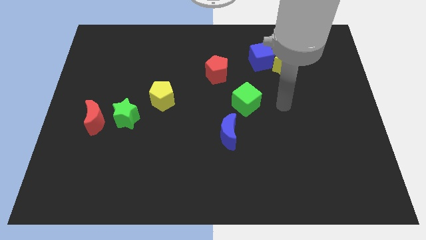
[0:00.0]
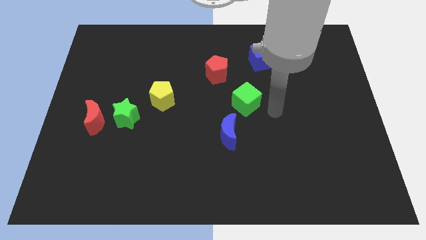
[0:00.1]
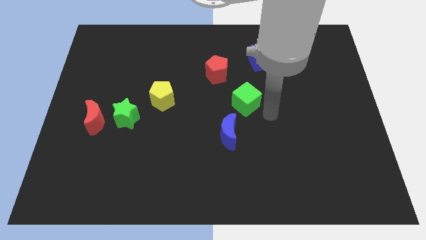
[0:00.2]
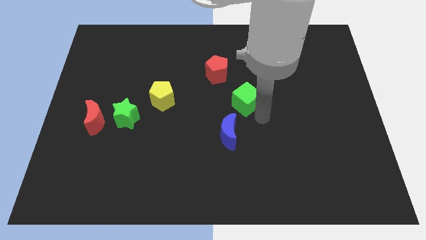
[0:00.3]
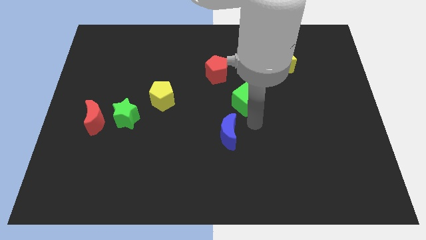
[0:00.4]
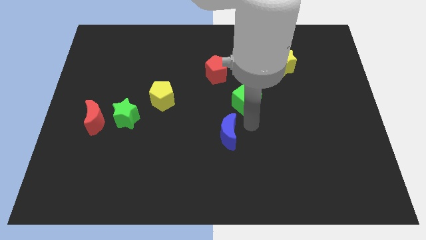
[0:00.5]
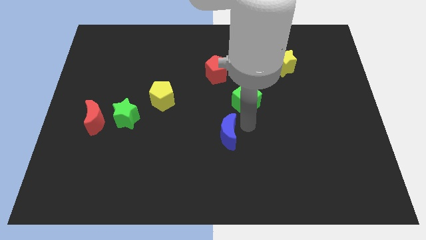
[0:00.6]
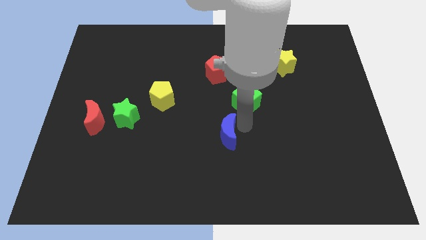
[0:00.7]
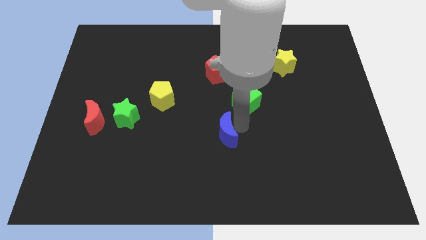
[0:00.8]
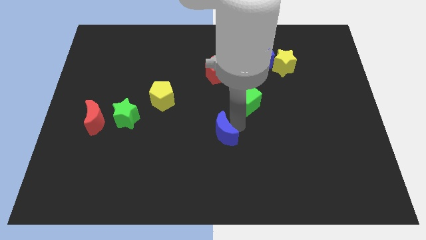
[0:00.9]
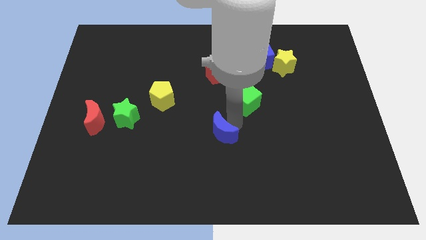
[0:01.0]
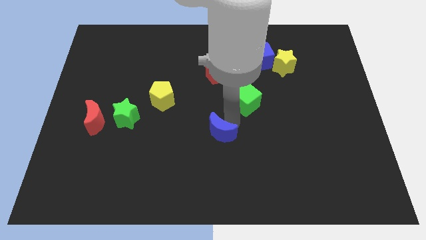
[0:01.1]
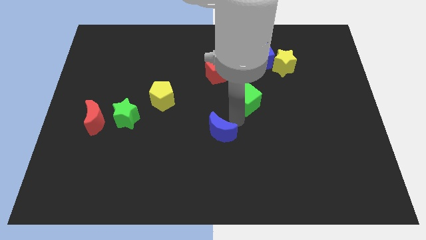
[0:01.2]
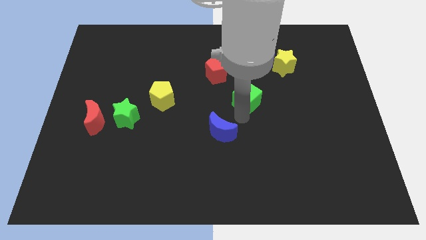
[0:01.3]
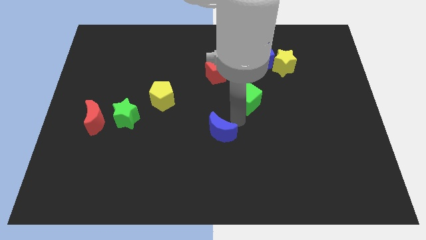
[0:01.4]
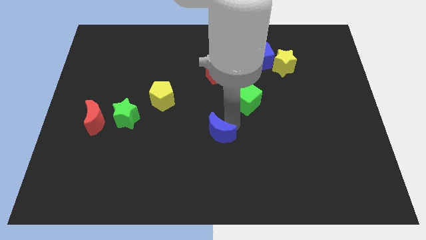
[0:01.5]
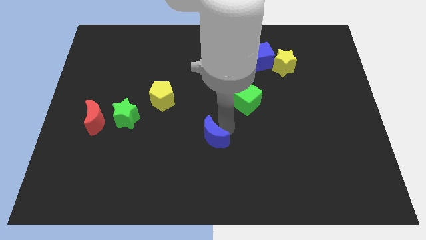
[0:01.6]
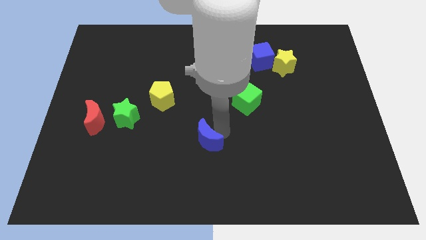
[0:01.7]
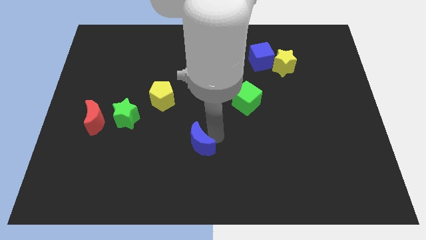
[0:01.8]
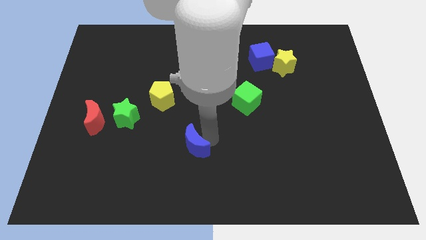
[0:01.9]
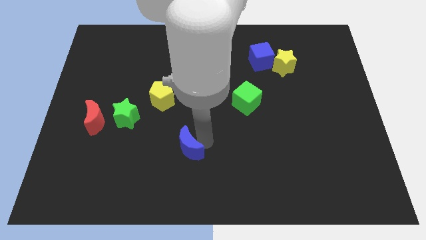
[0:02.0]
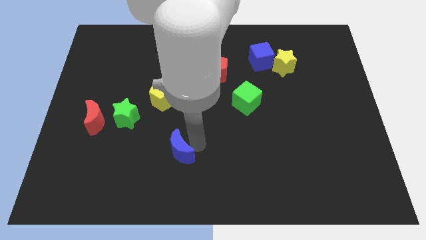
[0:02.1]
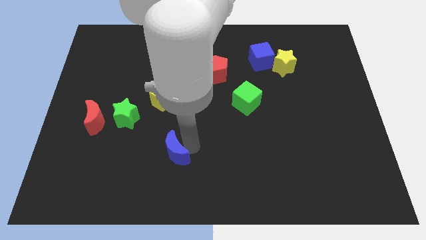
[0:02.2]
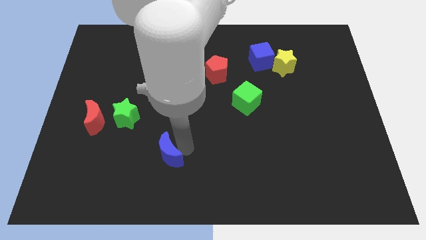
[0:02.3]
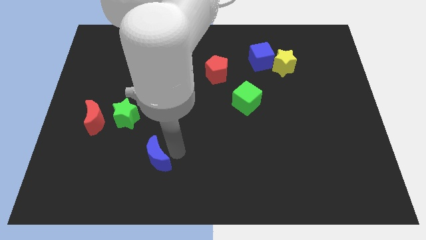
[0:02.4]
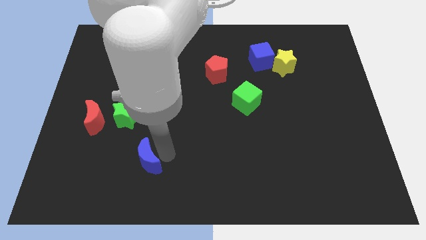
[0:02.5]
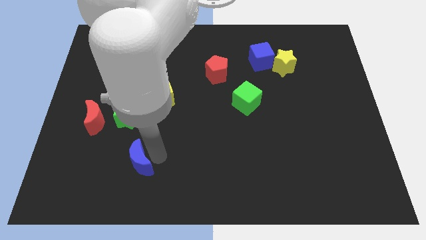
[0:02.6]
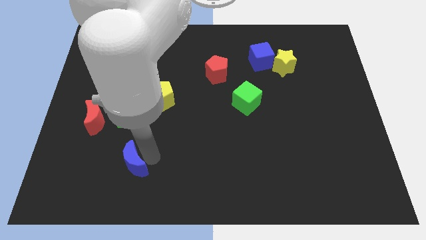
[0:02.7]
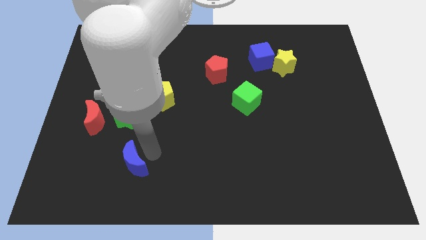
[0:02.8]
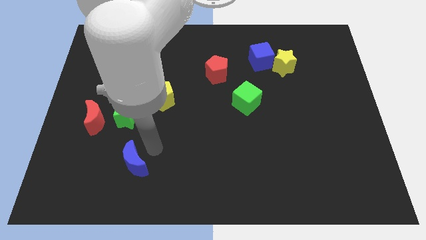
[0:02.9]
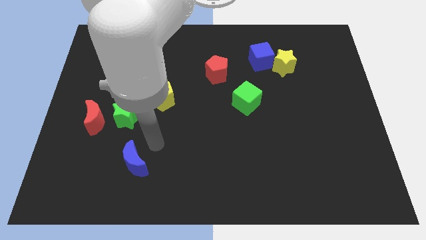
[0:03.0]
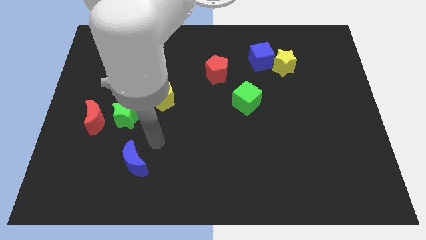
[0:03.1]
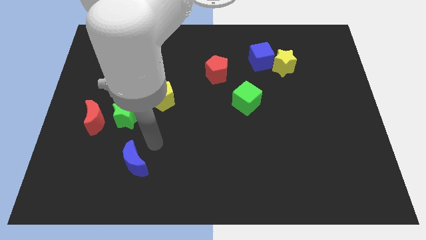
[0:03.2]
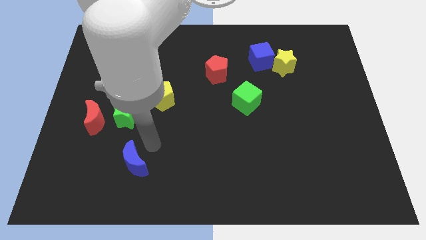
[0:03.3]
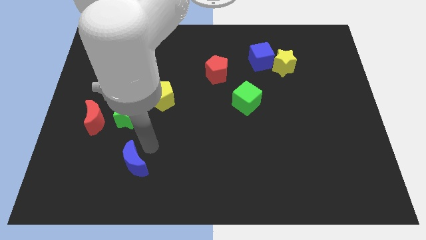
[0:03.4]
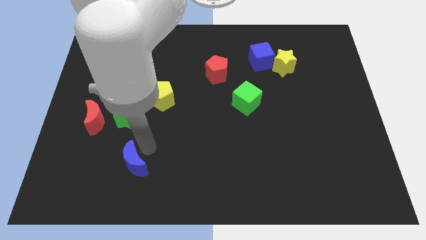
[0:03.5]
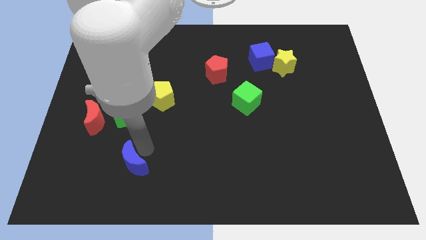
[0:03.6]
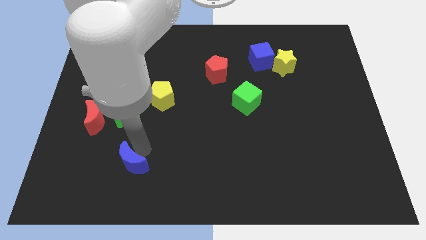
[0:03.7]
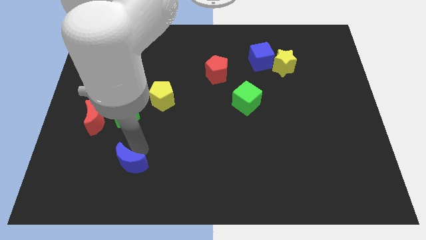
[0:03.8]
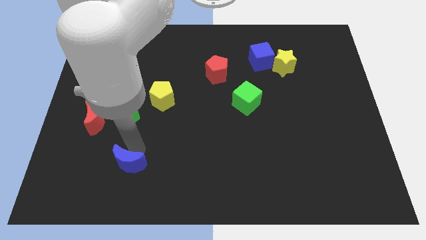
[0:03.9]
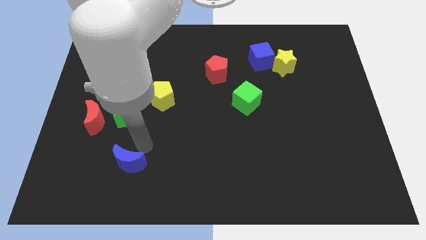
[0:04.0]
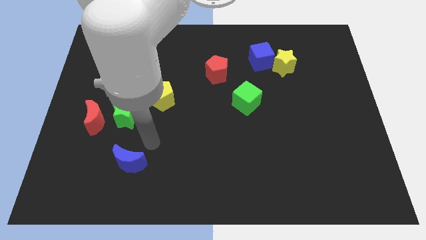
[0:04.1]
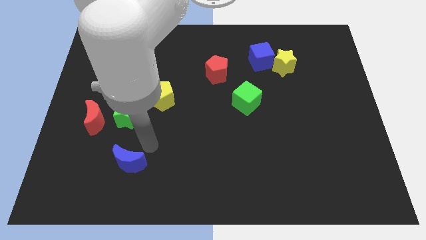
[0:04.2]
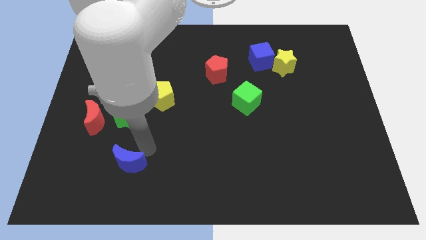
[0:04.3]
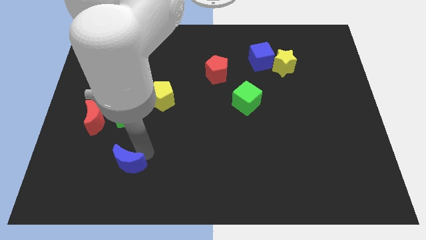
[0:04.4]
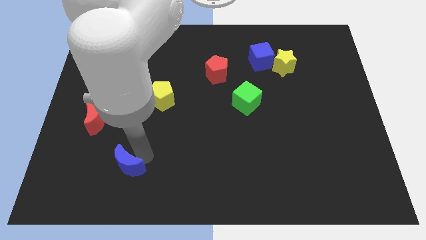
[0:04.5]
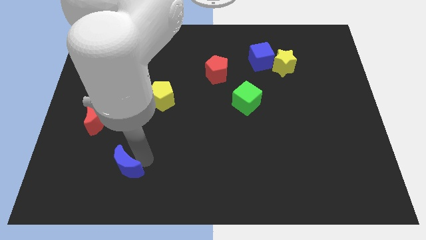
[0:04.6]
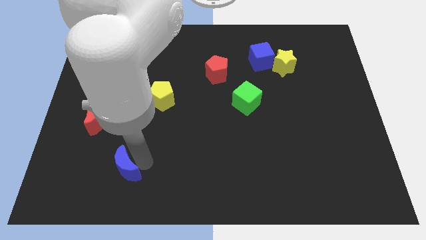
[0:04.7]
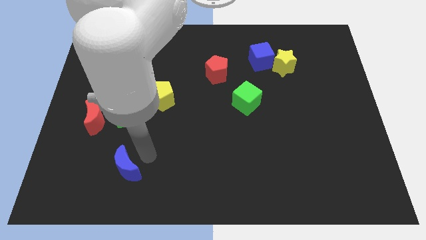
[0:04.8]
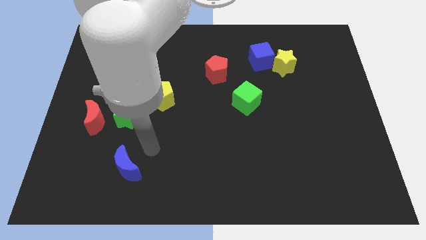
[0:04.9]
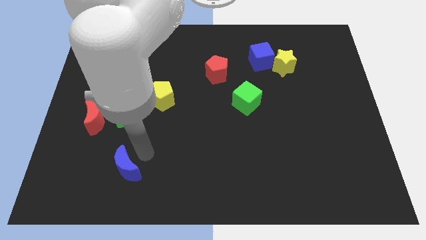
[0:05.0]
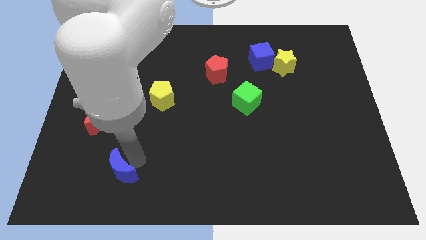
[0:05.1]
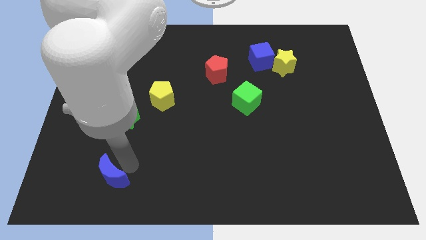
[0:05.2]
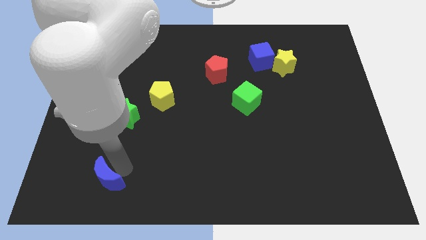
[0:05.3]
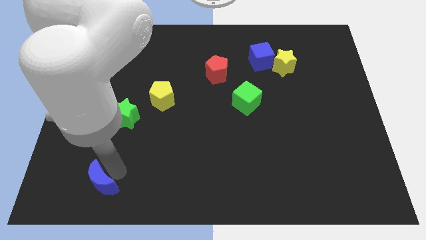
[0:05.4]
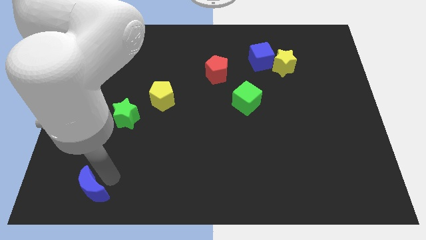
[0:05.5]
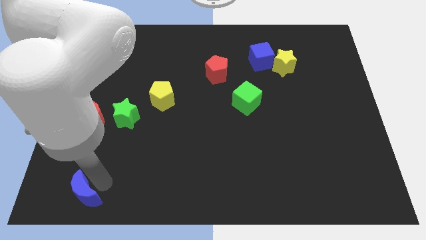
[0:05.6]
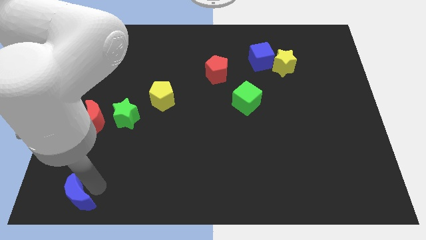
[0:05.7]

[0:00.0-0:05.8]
slide the blue moon to the bottom left corner

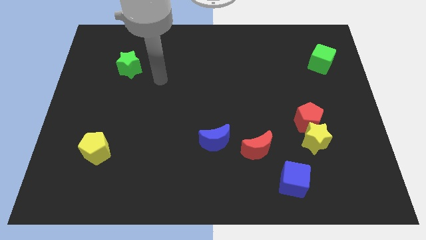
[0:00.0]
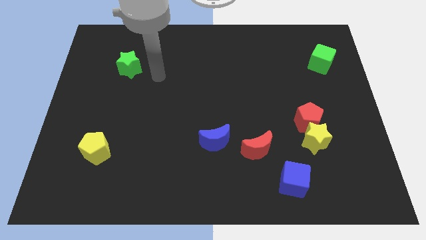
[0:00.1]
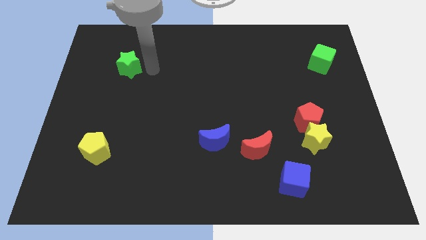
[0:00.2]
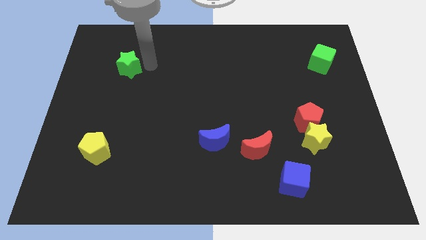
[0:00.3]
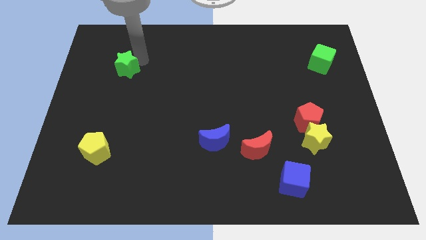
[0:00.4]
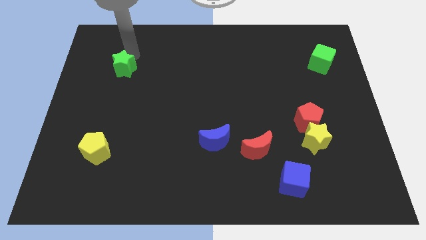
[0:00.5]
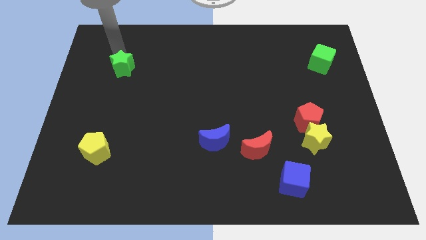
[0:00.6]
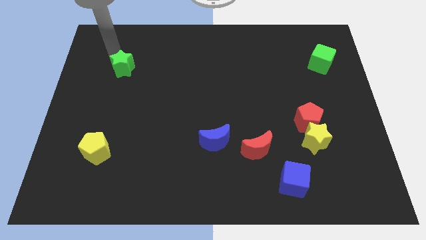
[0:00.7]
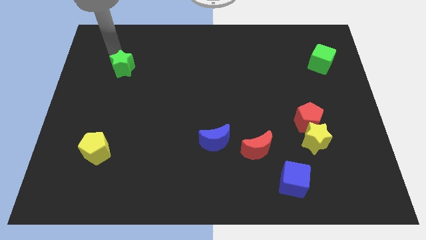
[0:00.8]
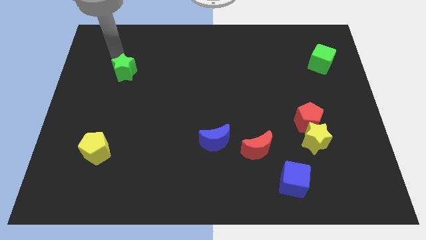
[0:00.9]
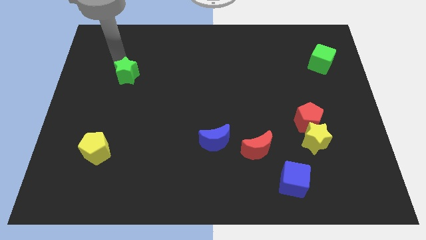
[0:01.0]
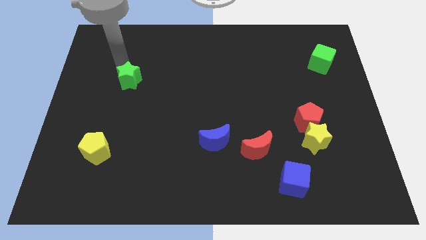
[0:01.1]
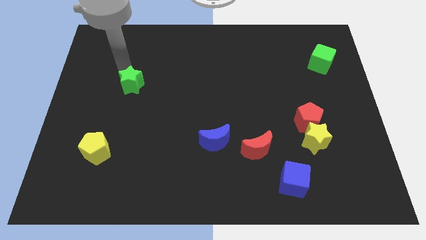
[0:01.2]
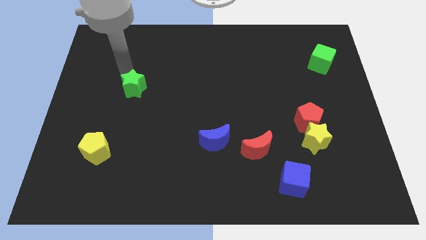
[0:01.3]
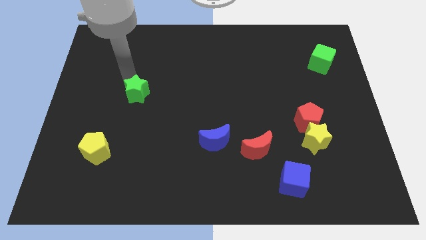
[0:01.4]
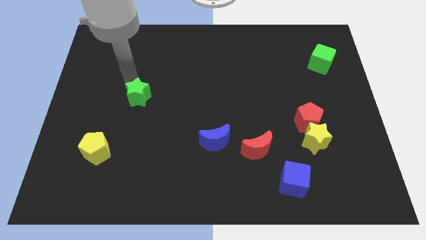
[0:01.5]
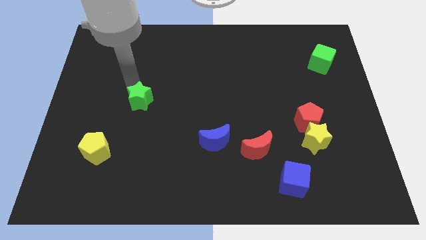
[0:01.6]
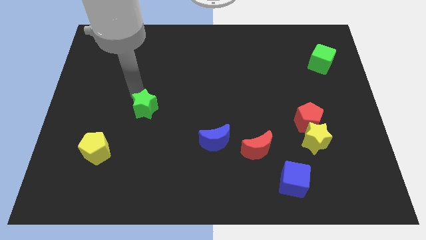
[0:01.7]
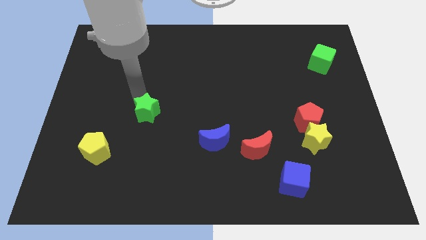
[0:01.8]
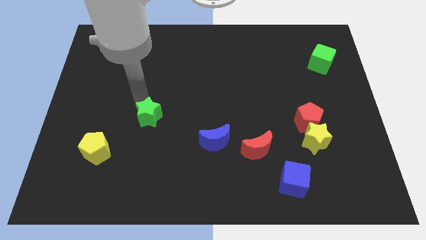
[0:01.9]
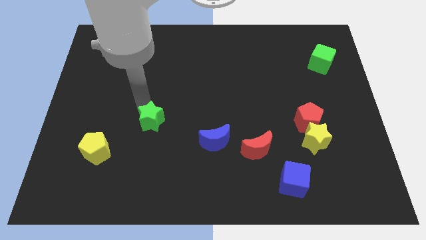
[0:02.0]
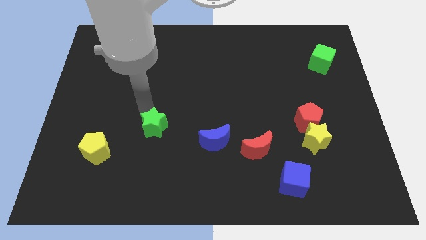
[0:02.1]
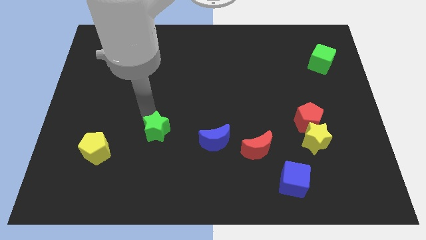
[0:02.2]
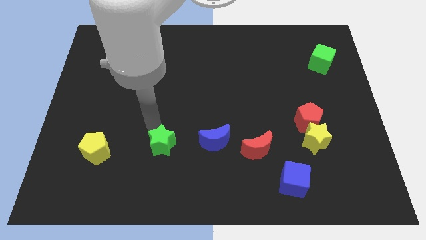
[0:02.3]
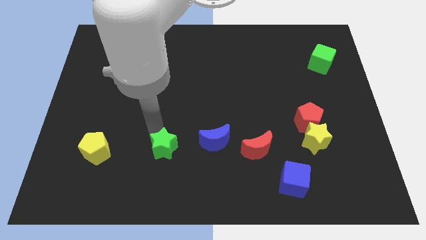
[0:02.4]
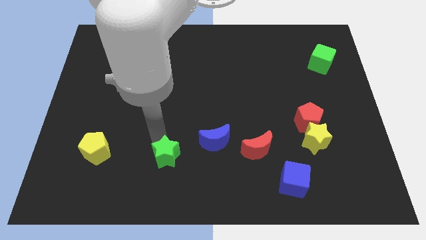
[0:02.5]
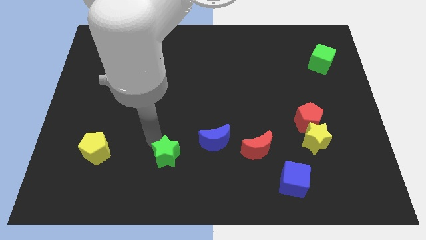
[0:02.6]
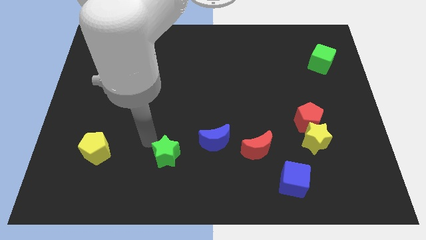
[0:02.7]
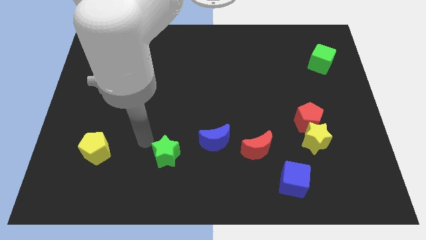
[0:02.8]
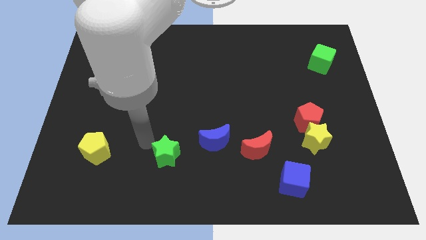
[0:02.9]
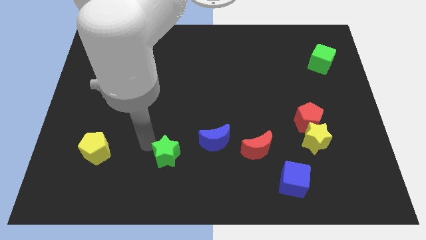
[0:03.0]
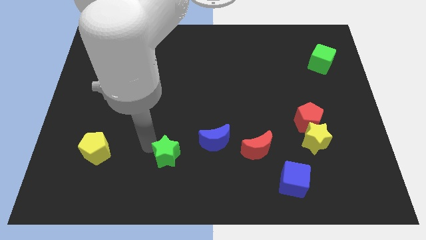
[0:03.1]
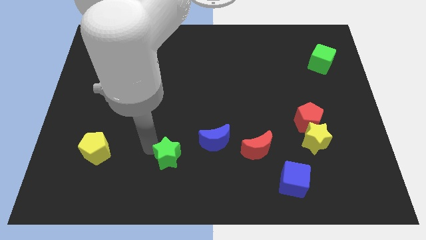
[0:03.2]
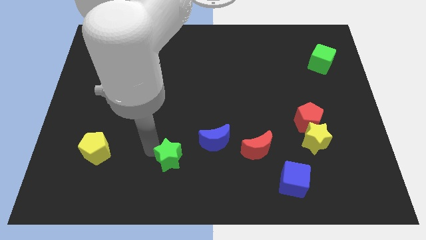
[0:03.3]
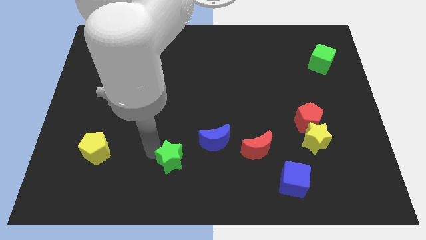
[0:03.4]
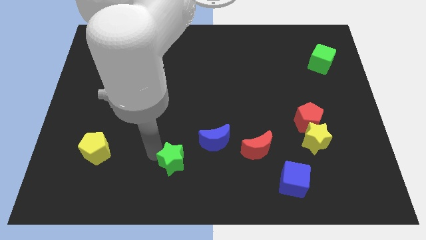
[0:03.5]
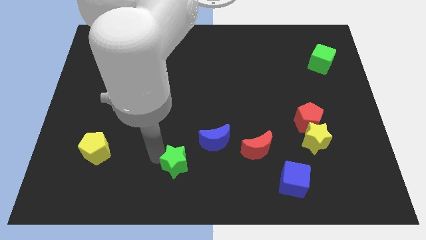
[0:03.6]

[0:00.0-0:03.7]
push the green star to the bottom side
